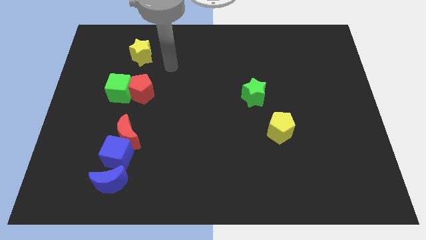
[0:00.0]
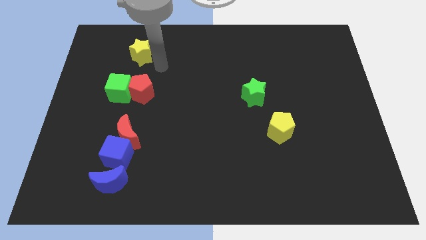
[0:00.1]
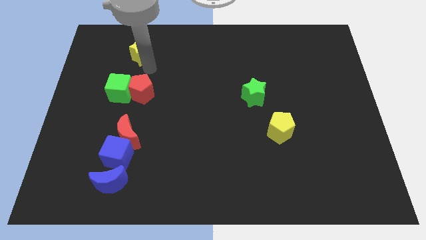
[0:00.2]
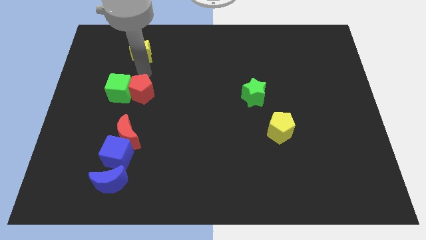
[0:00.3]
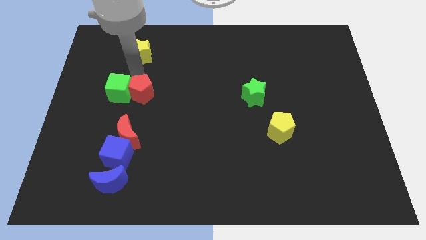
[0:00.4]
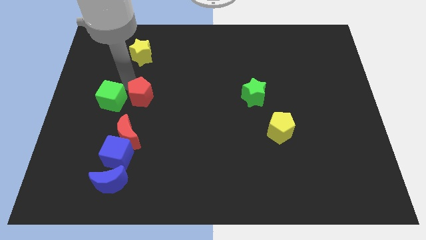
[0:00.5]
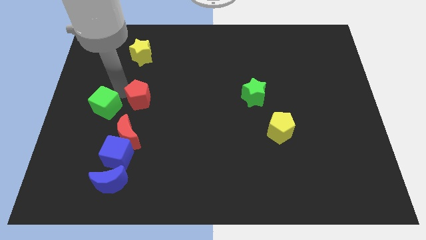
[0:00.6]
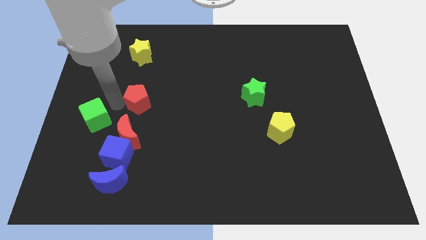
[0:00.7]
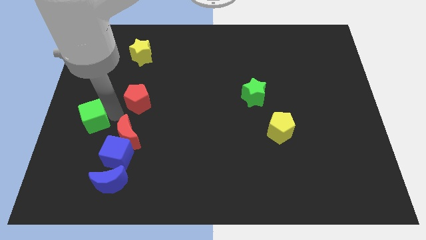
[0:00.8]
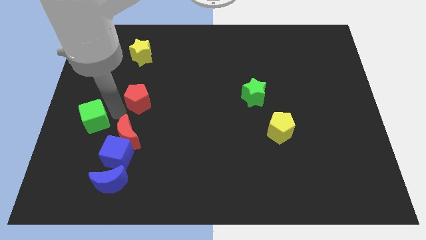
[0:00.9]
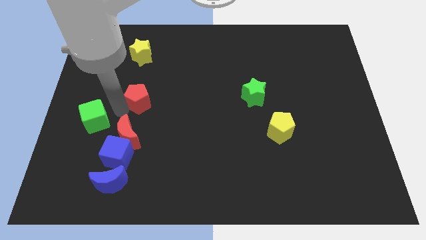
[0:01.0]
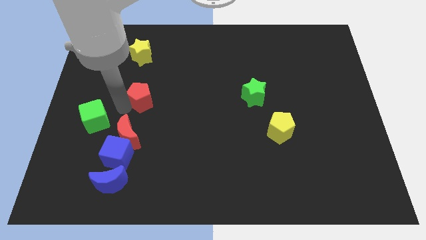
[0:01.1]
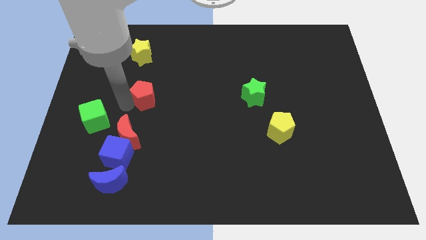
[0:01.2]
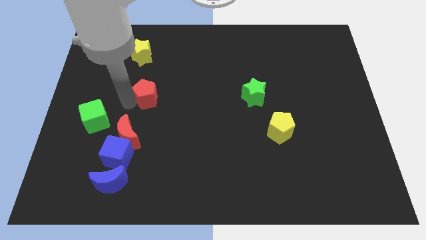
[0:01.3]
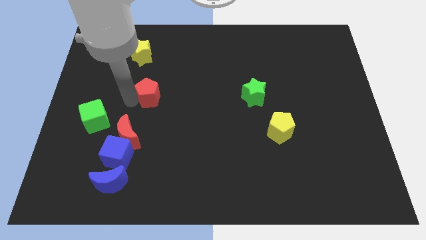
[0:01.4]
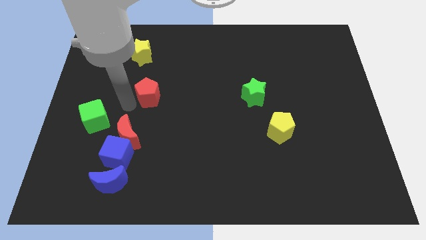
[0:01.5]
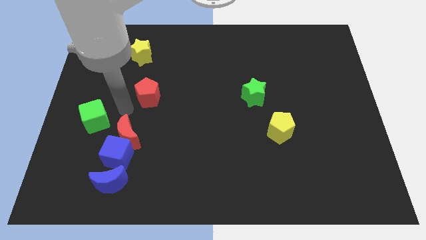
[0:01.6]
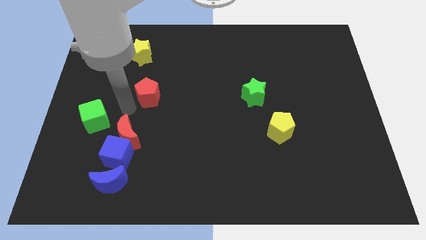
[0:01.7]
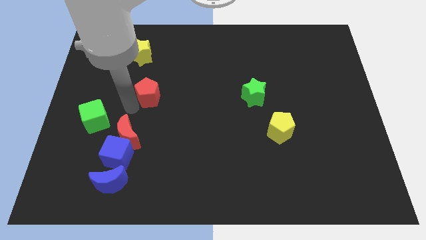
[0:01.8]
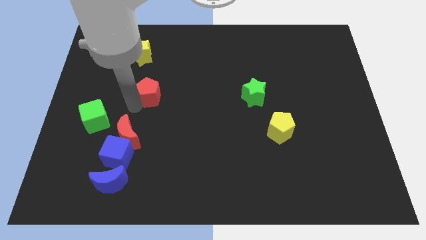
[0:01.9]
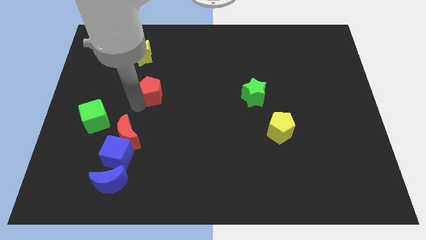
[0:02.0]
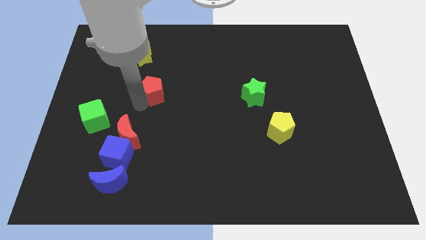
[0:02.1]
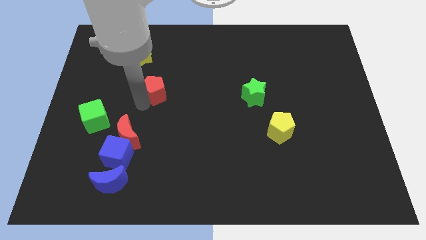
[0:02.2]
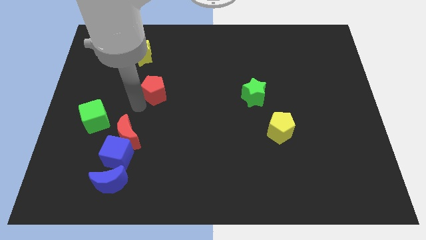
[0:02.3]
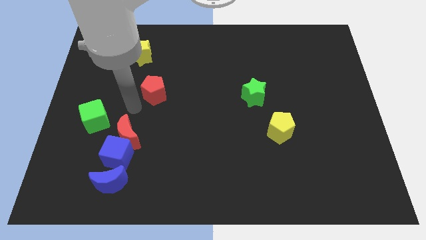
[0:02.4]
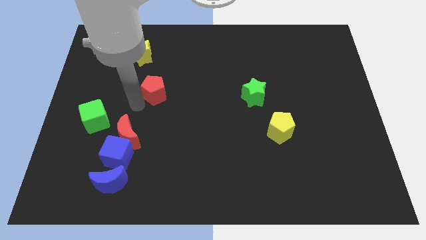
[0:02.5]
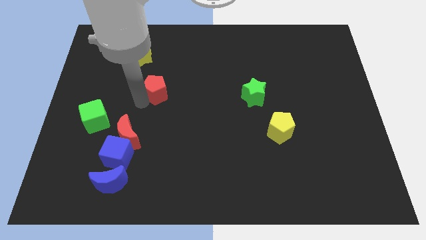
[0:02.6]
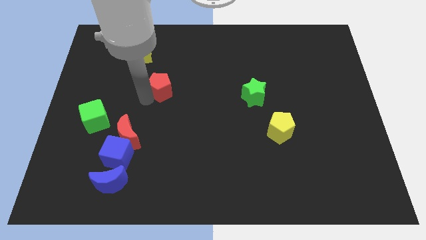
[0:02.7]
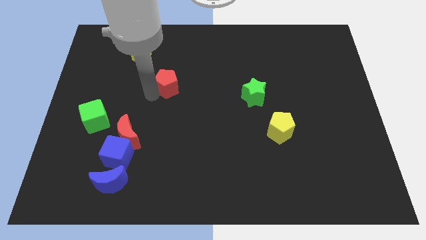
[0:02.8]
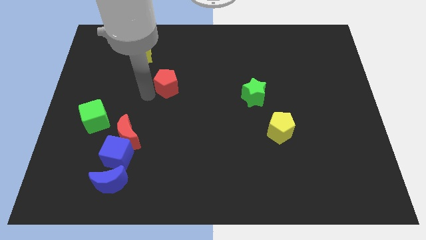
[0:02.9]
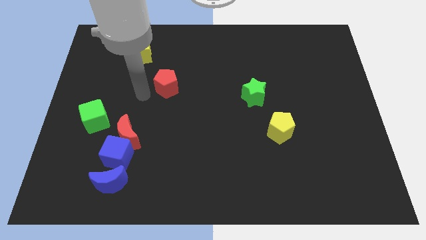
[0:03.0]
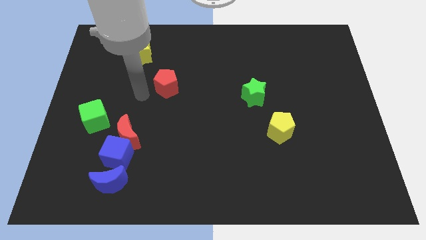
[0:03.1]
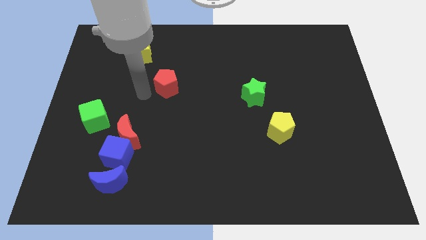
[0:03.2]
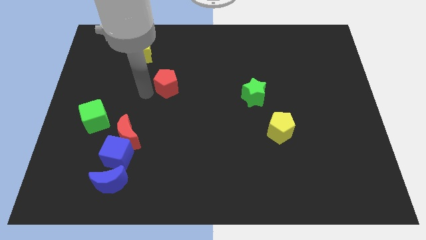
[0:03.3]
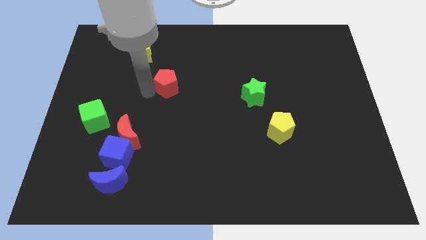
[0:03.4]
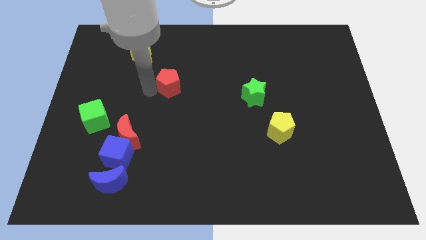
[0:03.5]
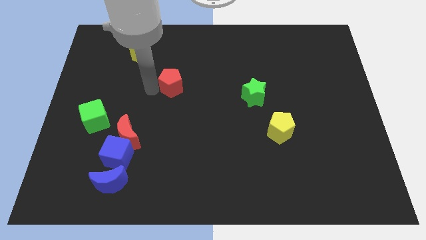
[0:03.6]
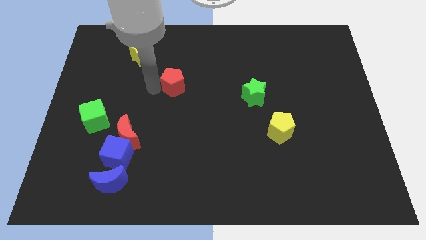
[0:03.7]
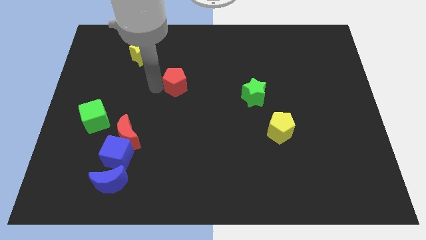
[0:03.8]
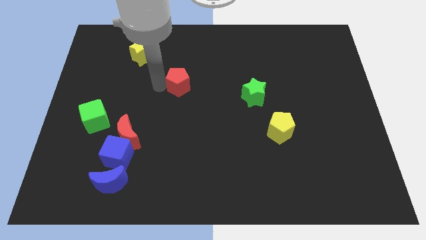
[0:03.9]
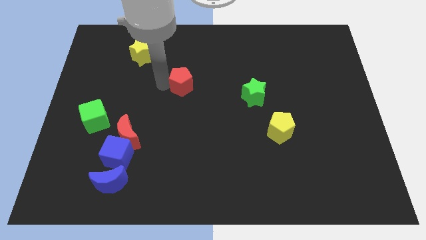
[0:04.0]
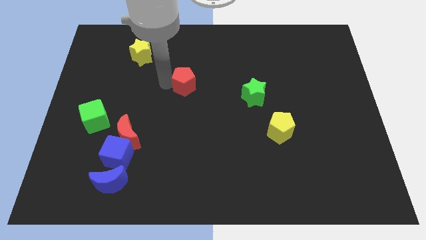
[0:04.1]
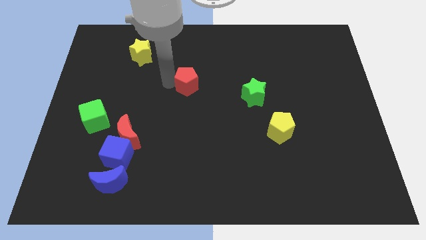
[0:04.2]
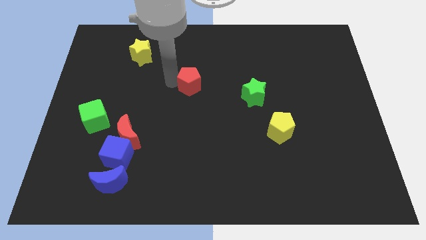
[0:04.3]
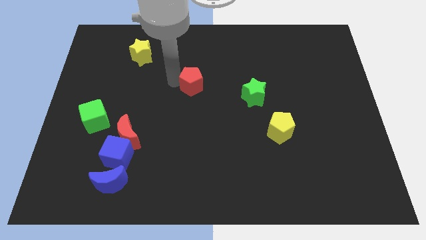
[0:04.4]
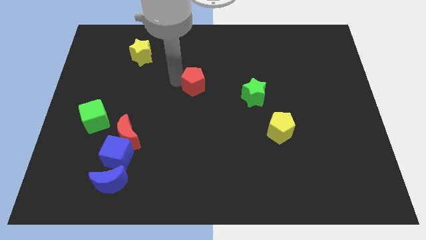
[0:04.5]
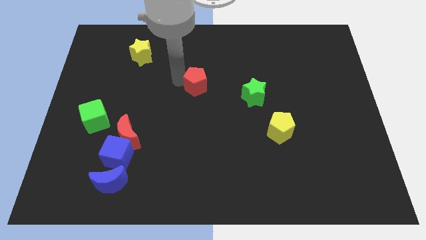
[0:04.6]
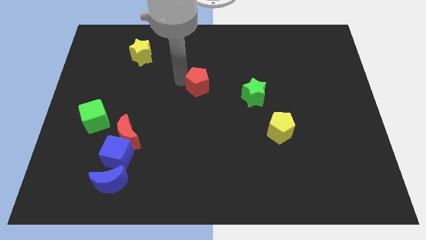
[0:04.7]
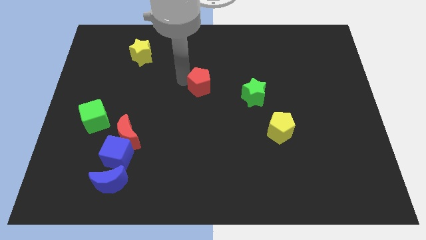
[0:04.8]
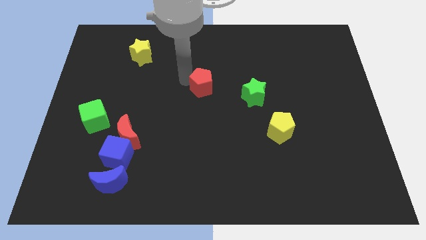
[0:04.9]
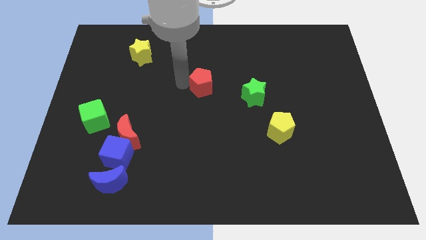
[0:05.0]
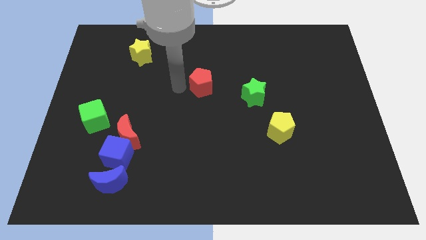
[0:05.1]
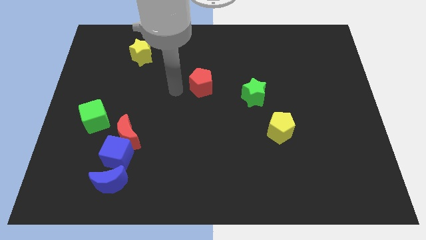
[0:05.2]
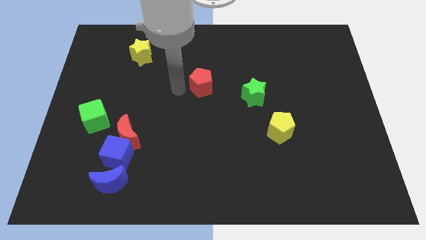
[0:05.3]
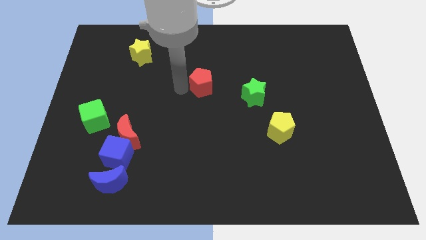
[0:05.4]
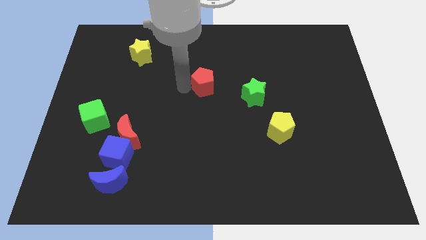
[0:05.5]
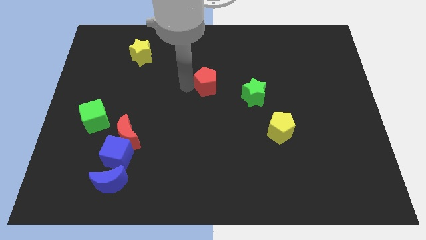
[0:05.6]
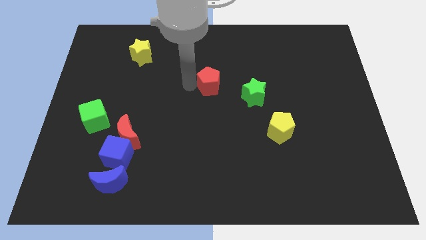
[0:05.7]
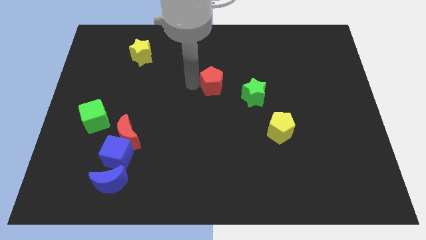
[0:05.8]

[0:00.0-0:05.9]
put the red pentagon to the top left side of the green star

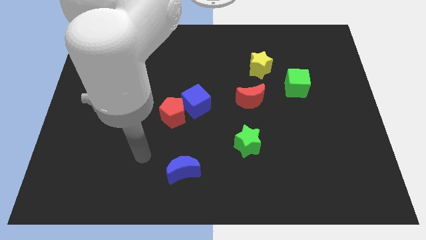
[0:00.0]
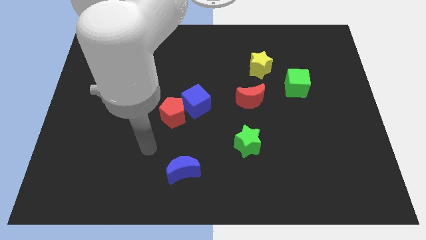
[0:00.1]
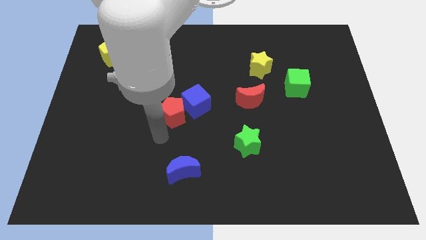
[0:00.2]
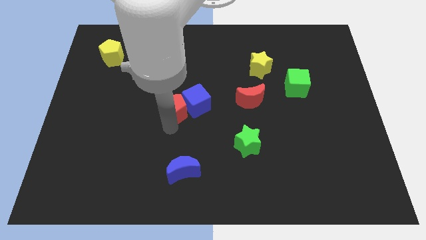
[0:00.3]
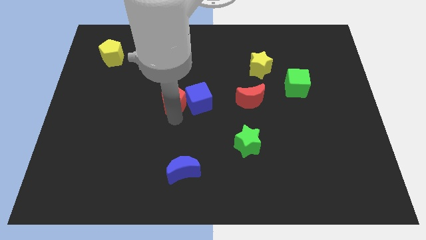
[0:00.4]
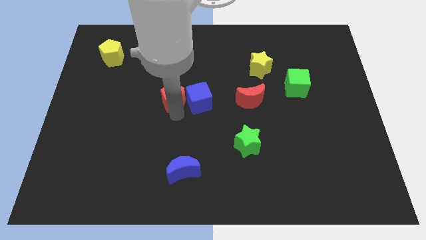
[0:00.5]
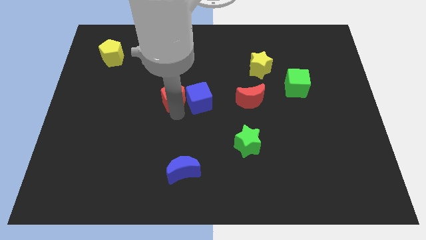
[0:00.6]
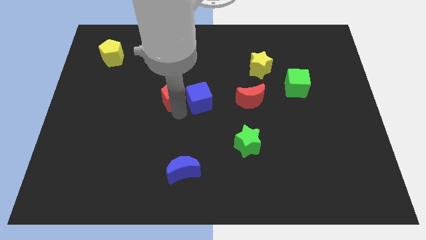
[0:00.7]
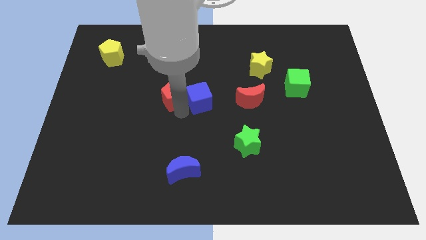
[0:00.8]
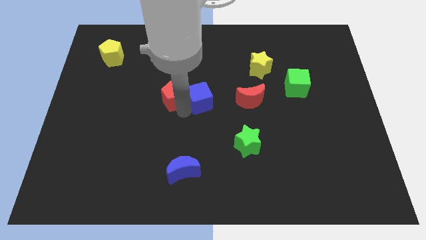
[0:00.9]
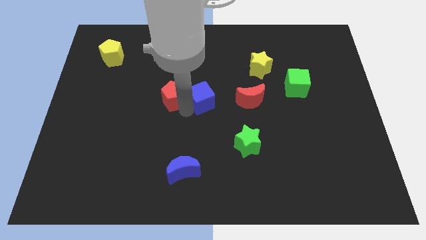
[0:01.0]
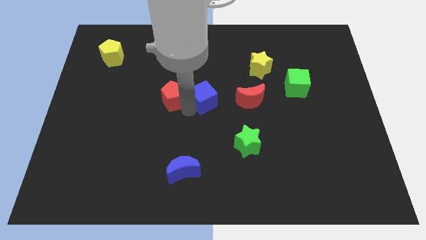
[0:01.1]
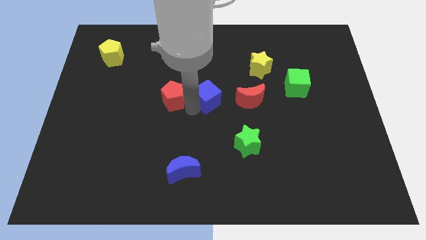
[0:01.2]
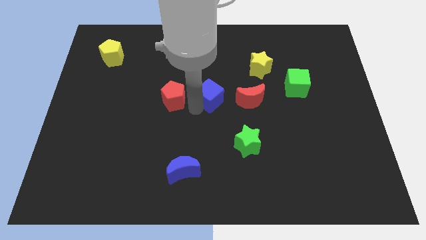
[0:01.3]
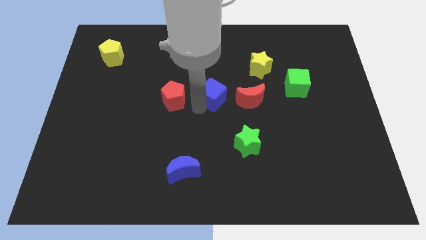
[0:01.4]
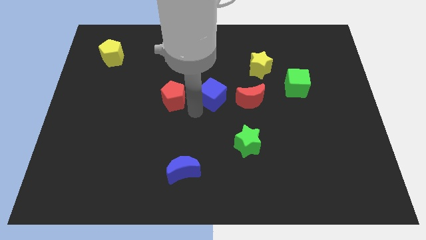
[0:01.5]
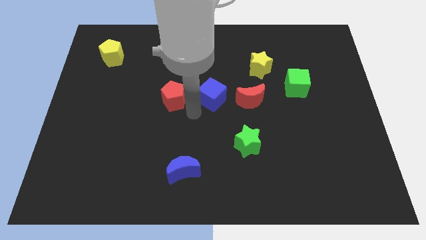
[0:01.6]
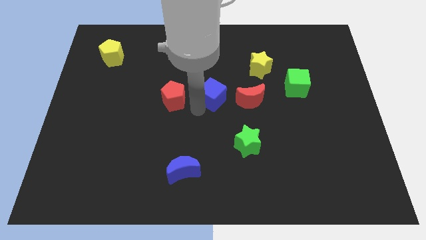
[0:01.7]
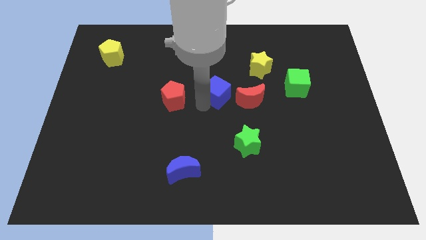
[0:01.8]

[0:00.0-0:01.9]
push the blue cube to the top left of the red moon
